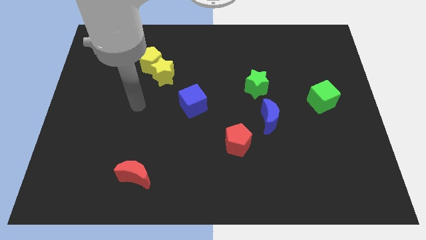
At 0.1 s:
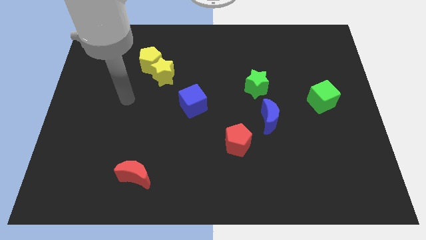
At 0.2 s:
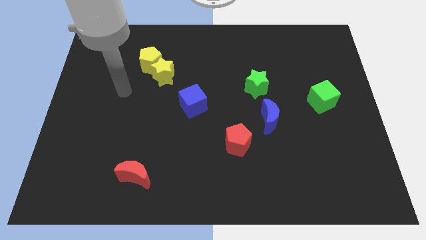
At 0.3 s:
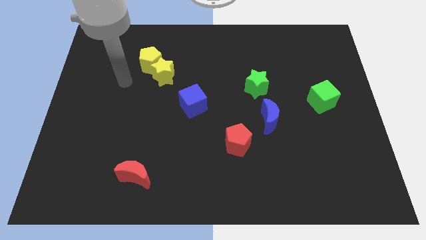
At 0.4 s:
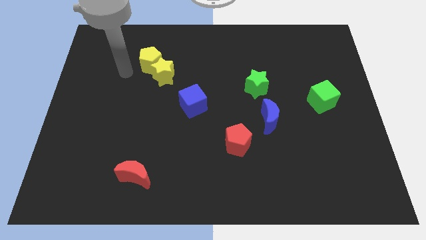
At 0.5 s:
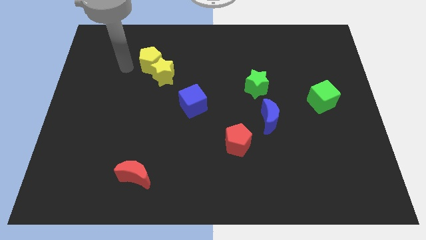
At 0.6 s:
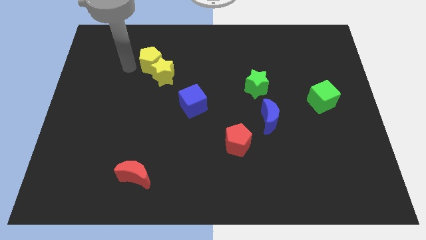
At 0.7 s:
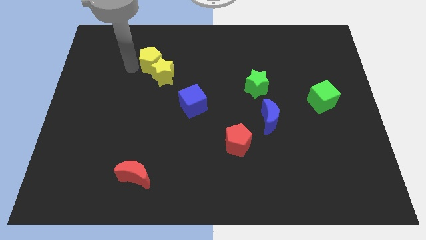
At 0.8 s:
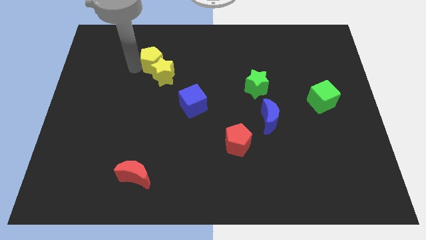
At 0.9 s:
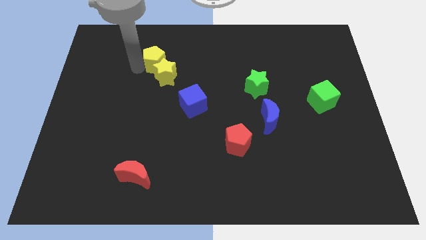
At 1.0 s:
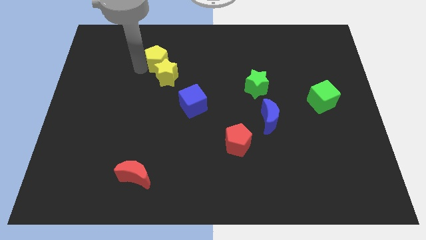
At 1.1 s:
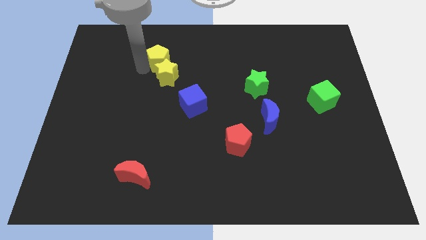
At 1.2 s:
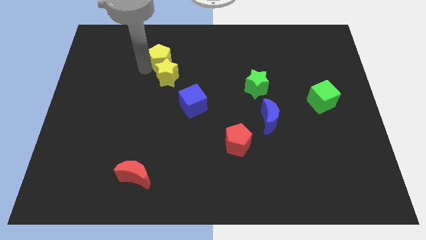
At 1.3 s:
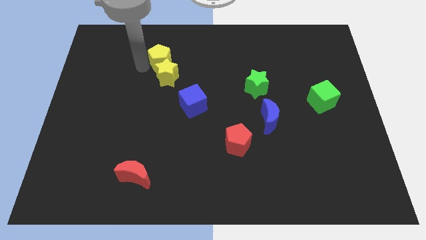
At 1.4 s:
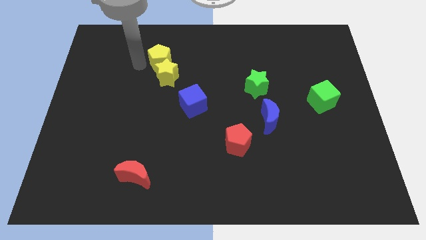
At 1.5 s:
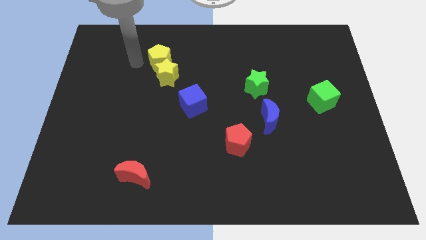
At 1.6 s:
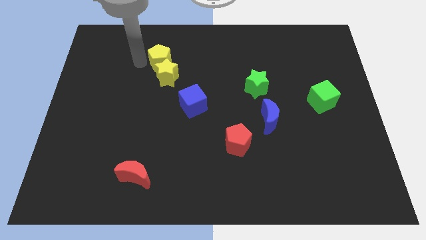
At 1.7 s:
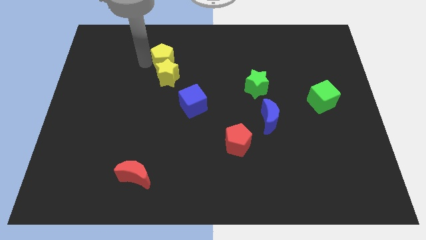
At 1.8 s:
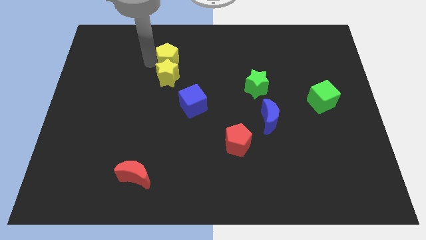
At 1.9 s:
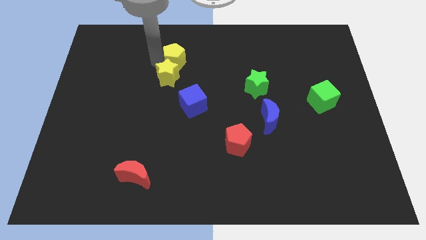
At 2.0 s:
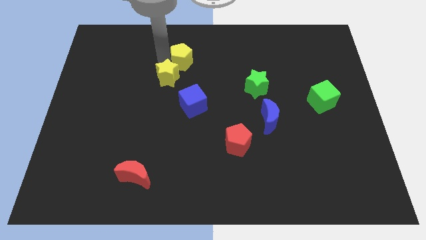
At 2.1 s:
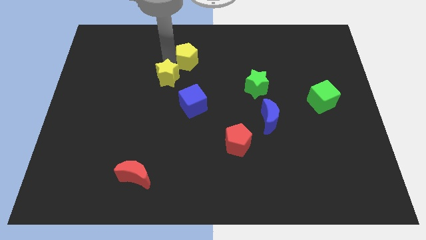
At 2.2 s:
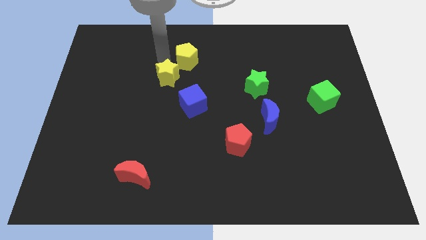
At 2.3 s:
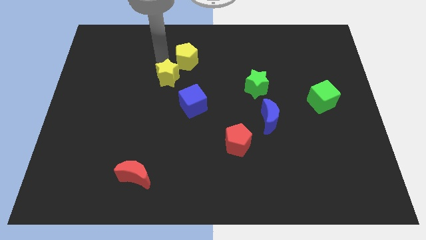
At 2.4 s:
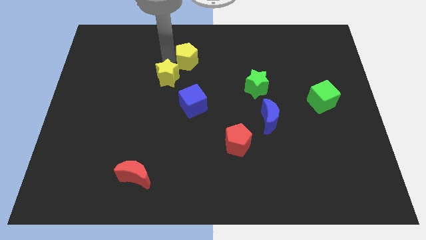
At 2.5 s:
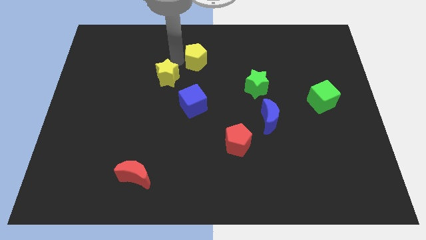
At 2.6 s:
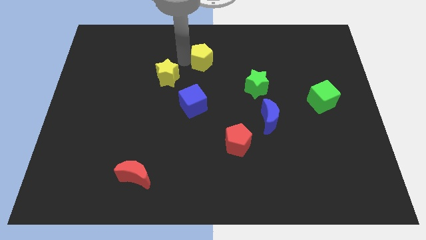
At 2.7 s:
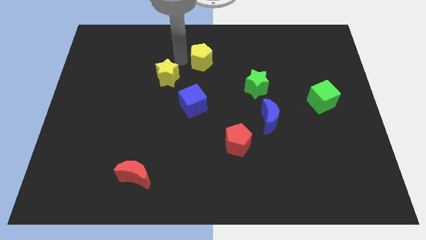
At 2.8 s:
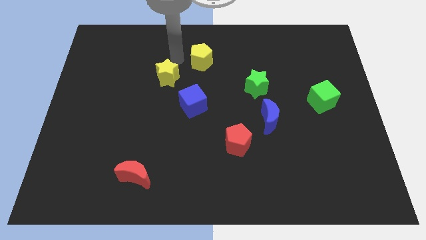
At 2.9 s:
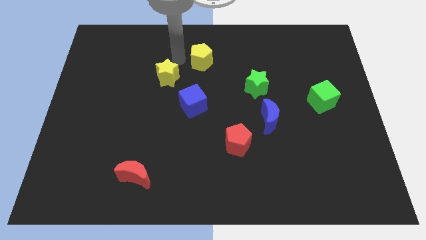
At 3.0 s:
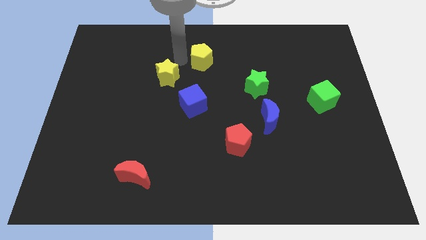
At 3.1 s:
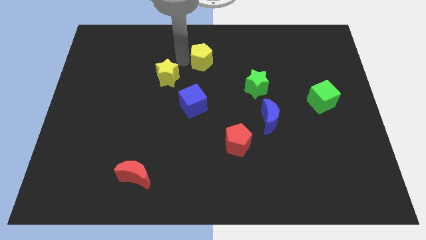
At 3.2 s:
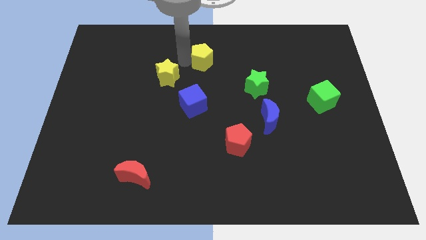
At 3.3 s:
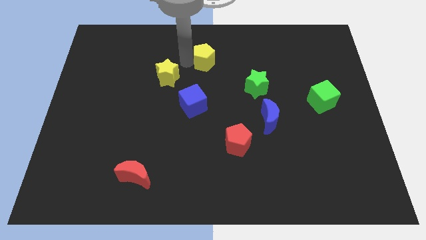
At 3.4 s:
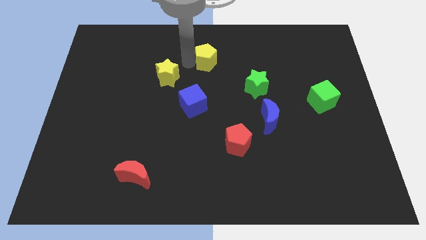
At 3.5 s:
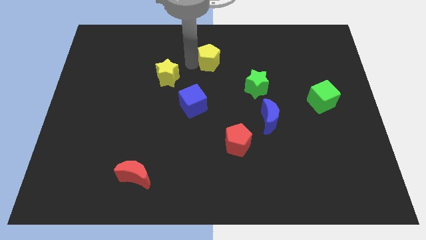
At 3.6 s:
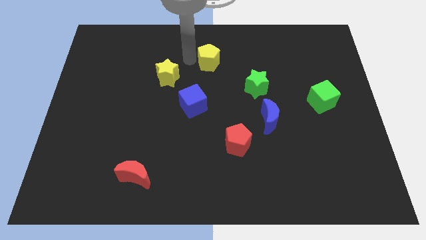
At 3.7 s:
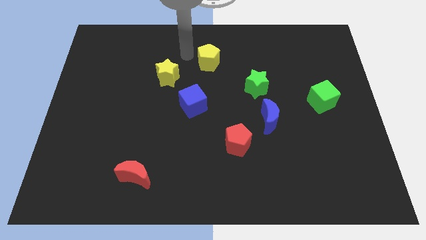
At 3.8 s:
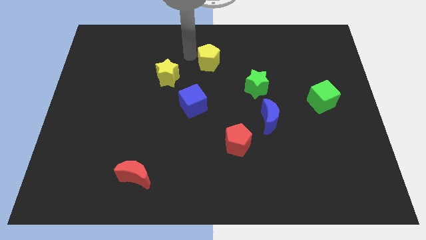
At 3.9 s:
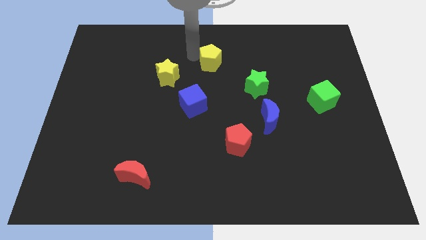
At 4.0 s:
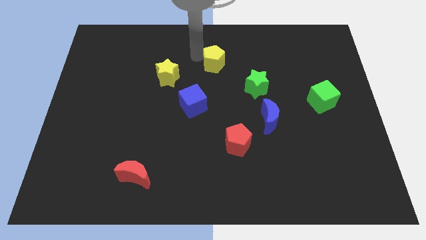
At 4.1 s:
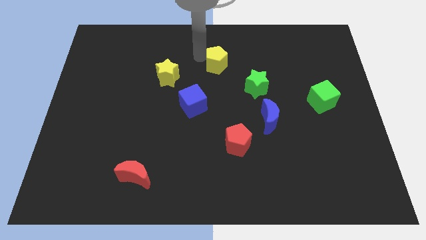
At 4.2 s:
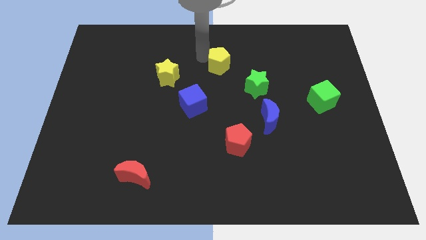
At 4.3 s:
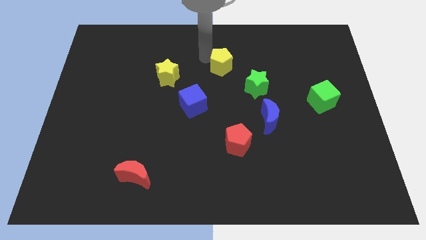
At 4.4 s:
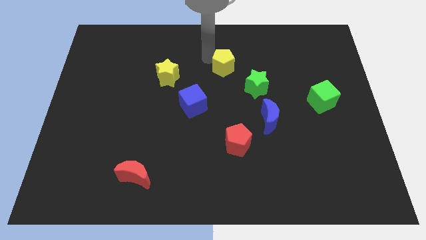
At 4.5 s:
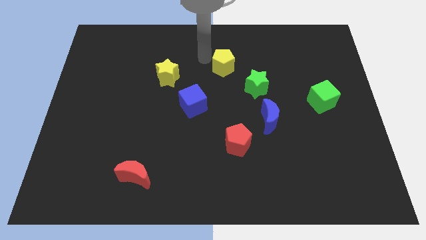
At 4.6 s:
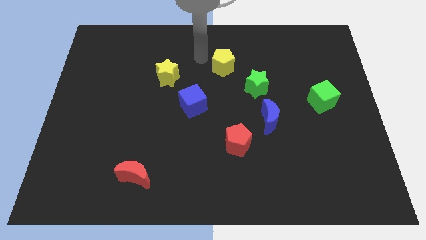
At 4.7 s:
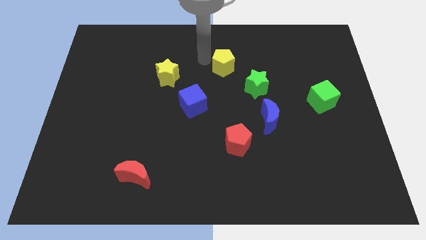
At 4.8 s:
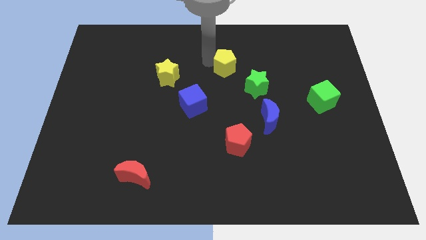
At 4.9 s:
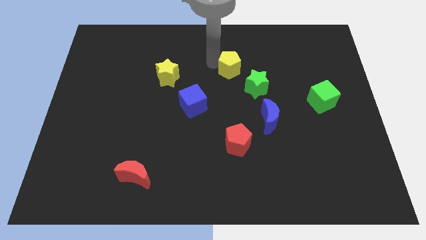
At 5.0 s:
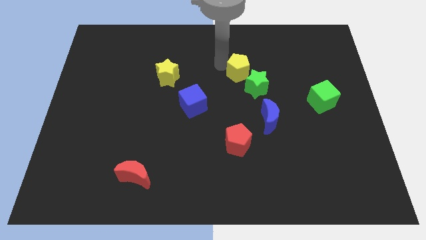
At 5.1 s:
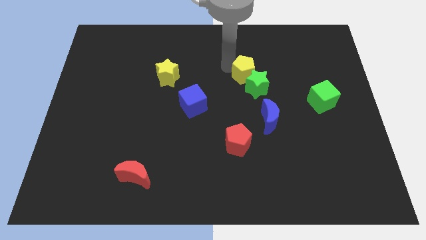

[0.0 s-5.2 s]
put the yellow pentagon next to the green star

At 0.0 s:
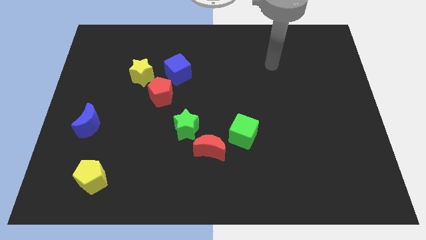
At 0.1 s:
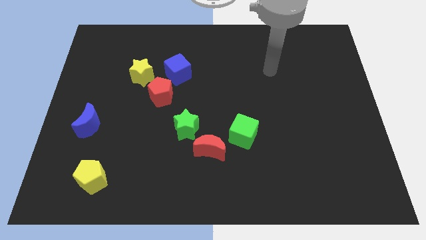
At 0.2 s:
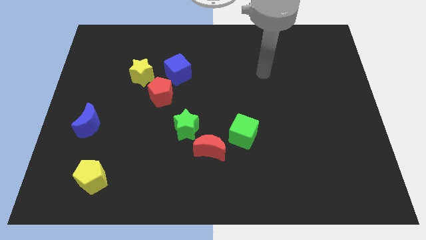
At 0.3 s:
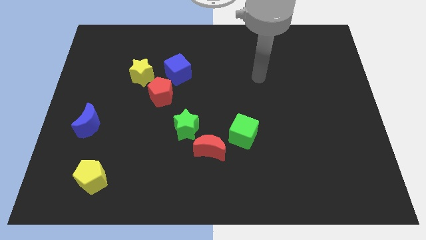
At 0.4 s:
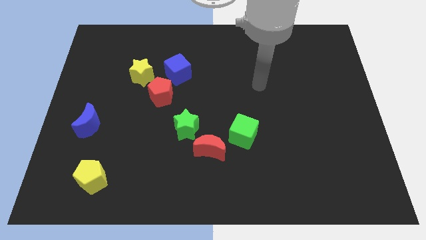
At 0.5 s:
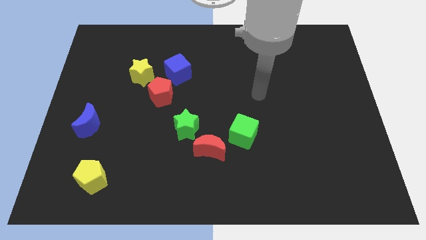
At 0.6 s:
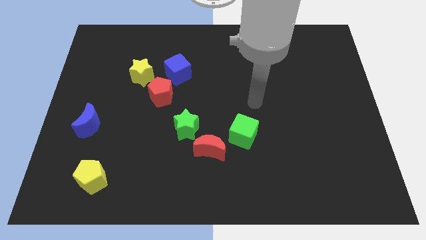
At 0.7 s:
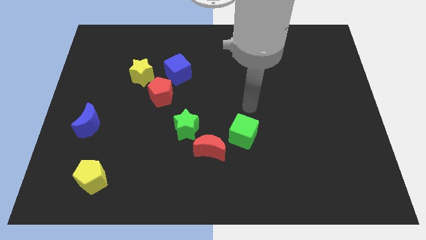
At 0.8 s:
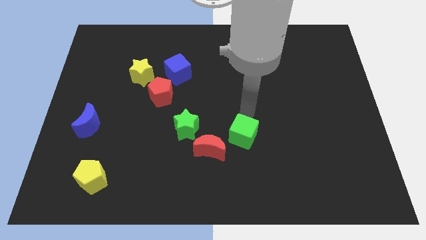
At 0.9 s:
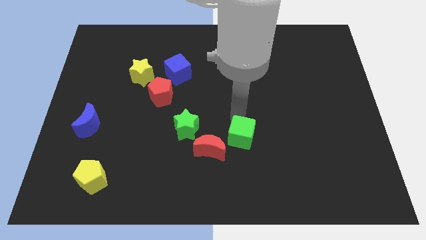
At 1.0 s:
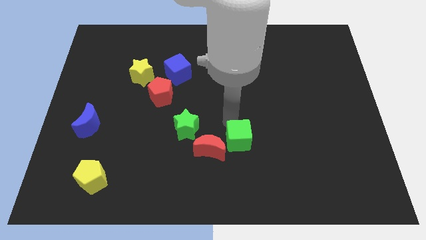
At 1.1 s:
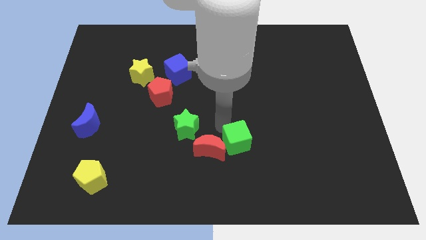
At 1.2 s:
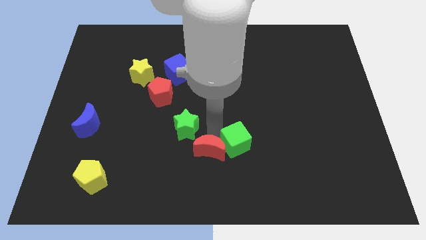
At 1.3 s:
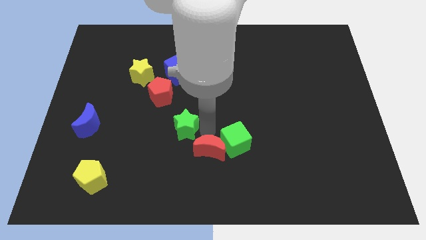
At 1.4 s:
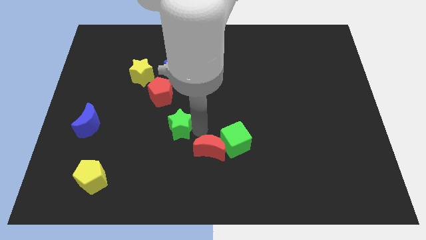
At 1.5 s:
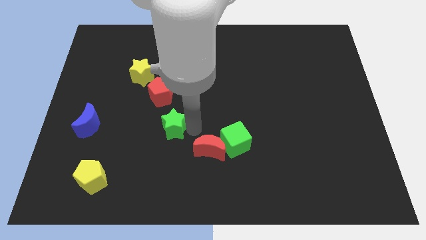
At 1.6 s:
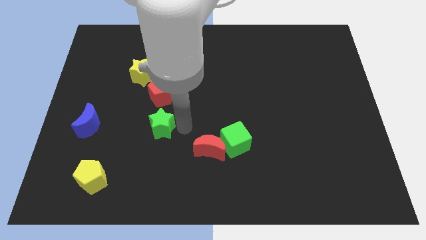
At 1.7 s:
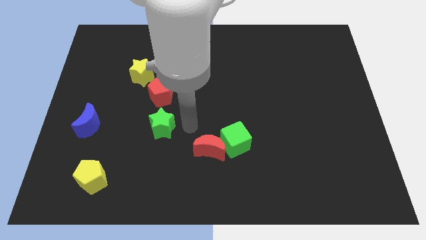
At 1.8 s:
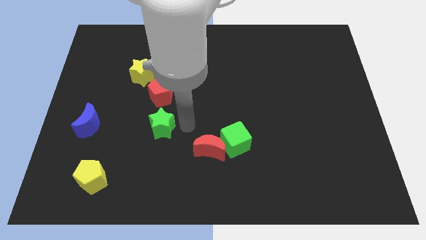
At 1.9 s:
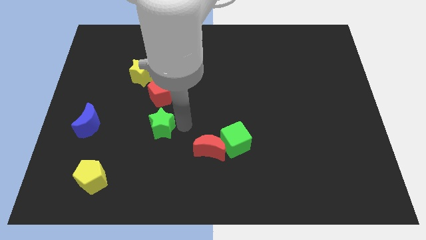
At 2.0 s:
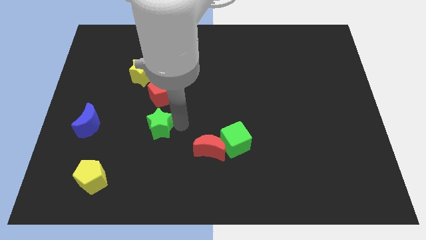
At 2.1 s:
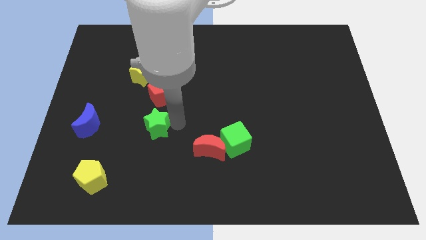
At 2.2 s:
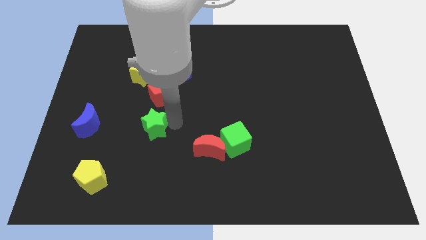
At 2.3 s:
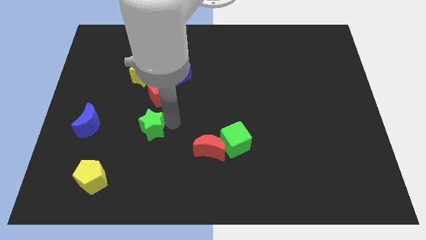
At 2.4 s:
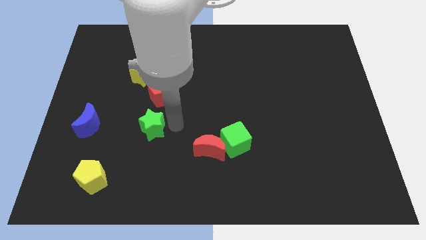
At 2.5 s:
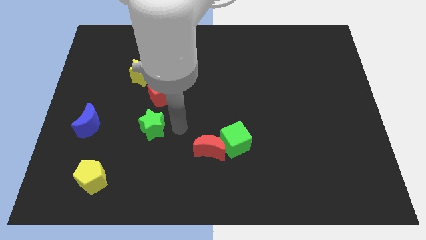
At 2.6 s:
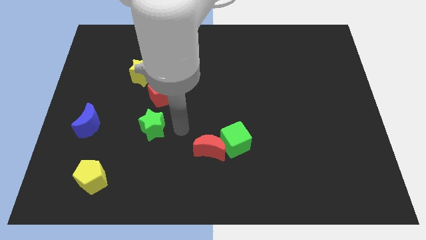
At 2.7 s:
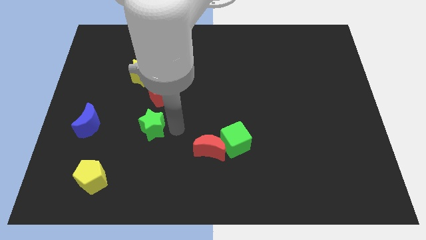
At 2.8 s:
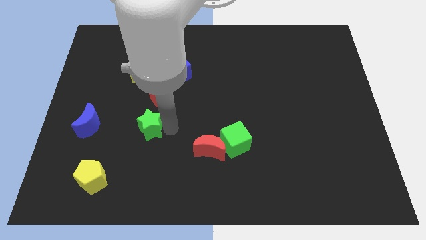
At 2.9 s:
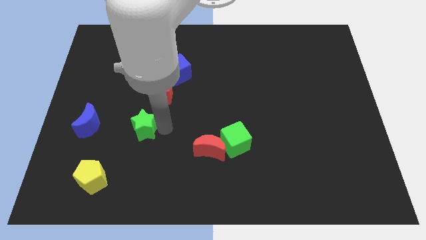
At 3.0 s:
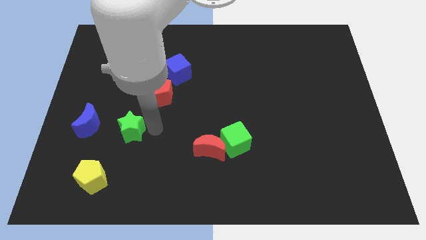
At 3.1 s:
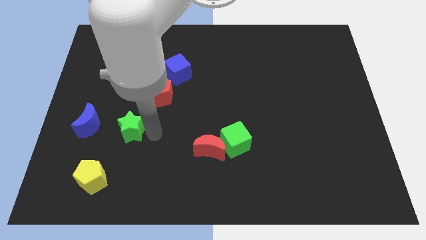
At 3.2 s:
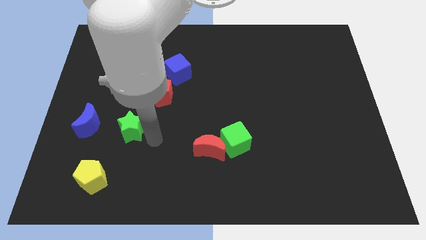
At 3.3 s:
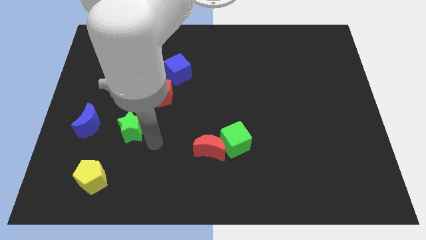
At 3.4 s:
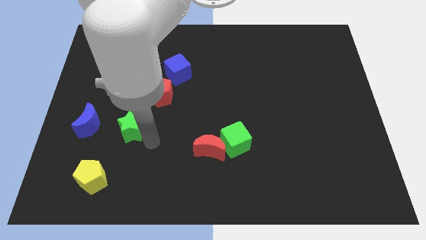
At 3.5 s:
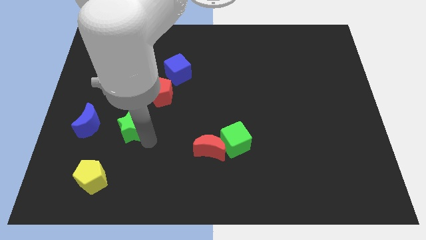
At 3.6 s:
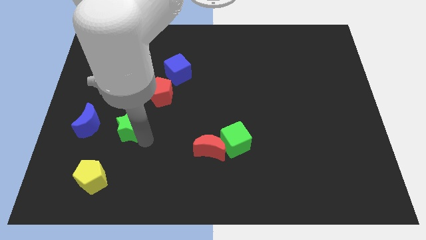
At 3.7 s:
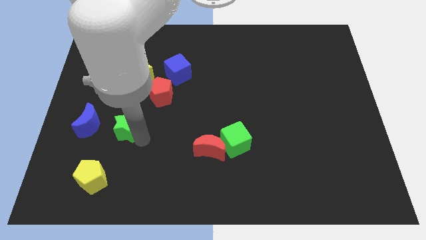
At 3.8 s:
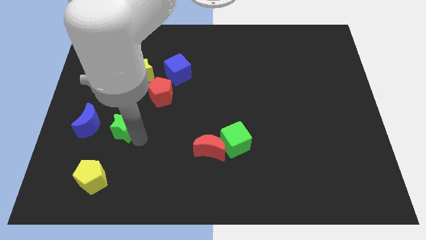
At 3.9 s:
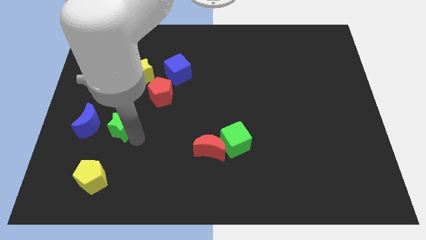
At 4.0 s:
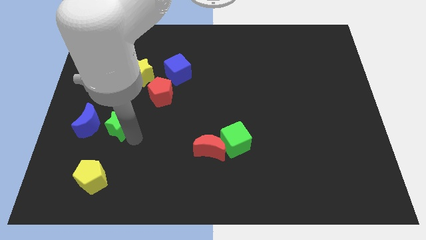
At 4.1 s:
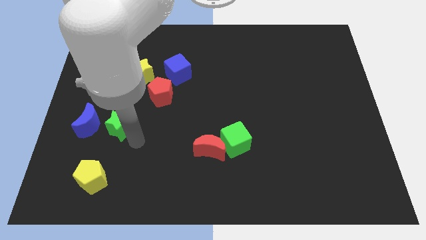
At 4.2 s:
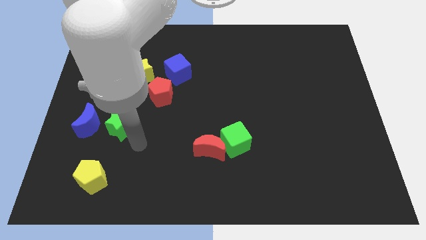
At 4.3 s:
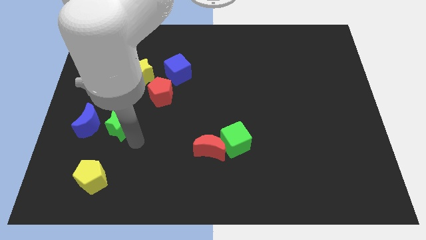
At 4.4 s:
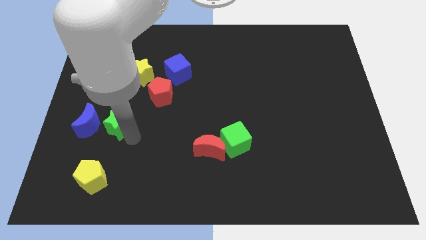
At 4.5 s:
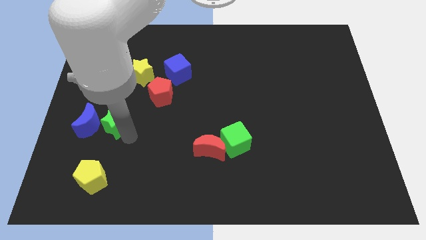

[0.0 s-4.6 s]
put the green star towards the blue moon
